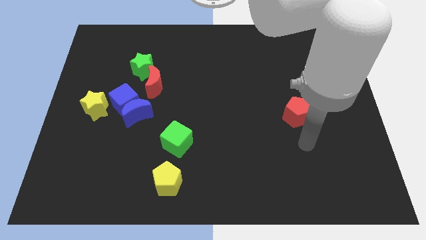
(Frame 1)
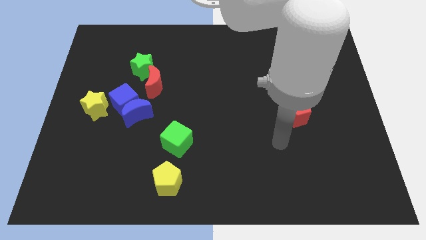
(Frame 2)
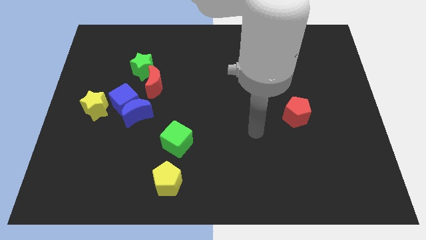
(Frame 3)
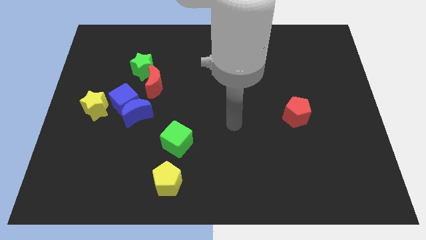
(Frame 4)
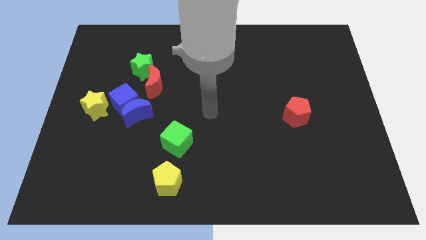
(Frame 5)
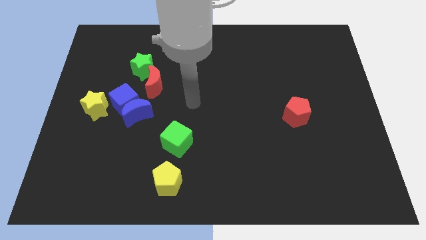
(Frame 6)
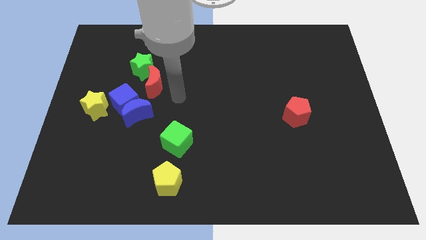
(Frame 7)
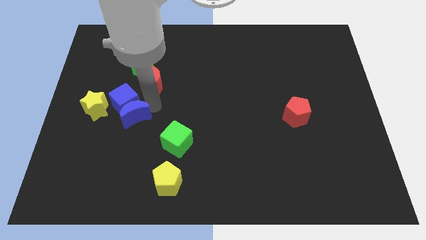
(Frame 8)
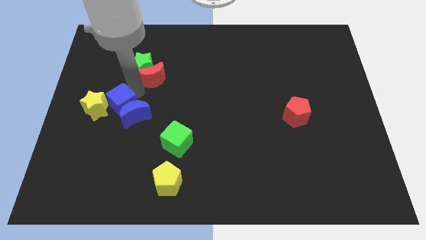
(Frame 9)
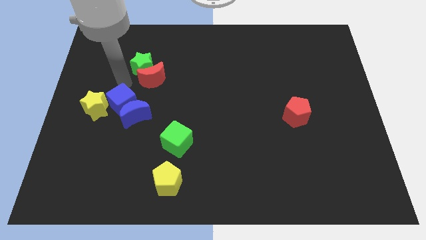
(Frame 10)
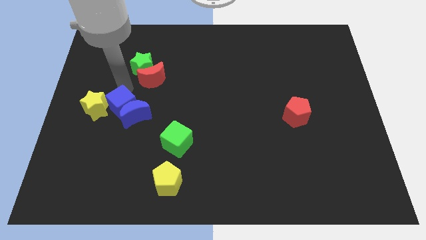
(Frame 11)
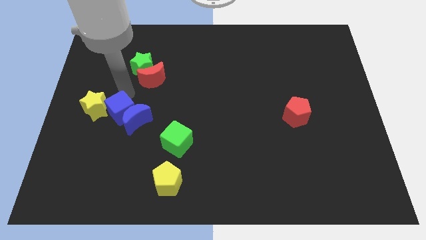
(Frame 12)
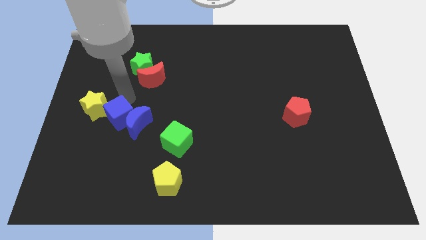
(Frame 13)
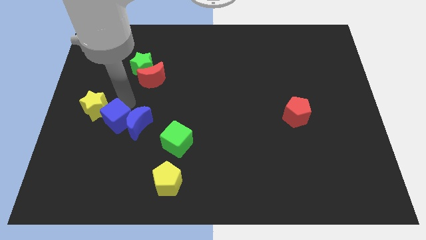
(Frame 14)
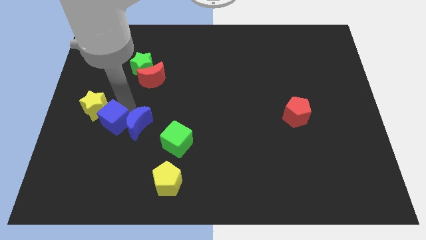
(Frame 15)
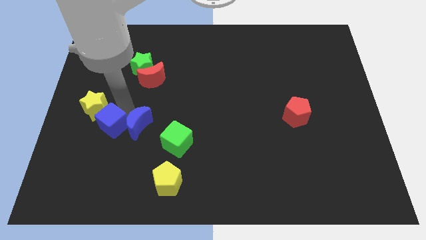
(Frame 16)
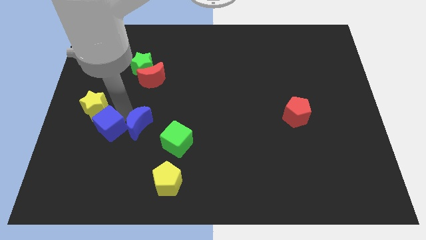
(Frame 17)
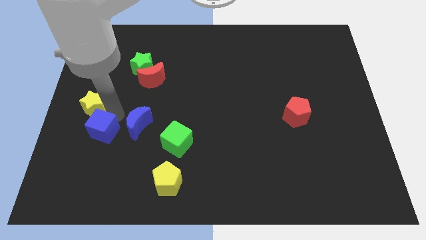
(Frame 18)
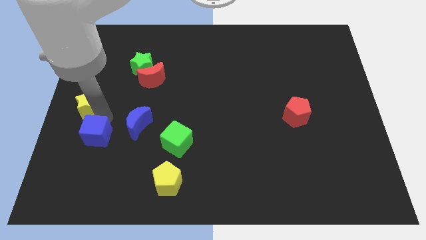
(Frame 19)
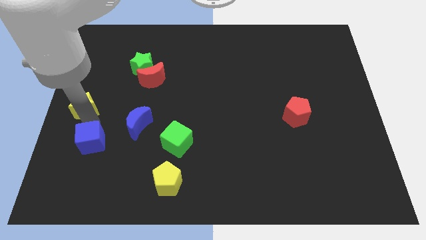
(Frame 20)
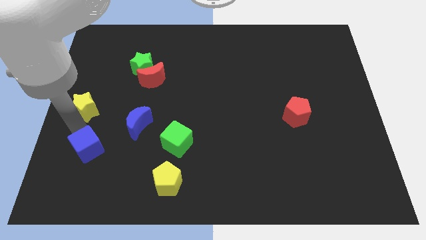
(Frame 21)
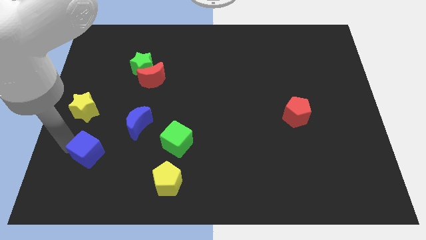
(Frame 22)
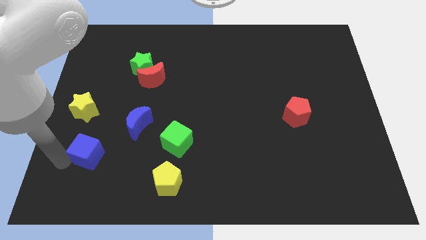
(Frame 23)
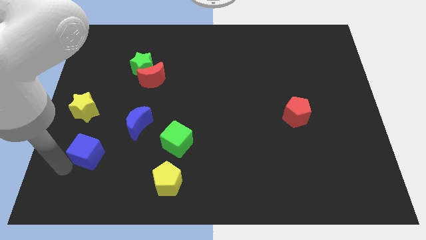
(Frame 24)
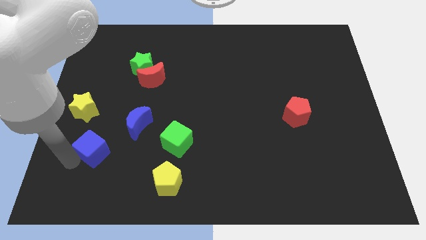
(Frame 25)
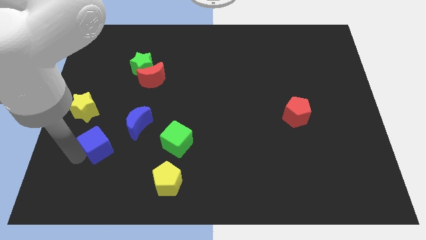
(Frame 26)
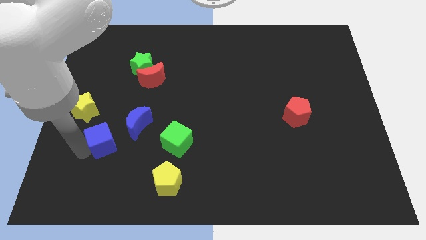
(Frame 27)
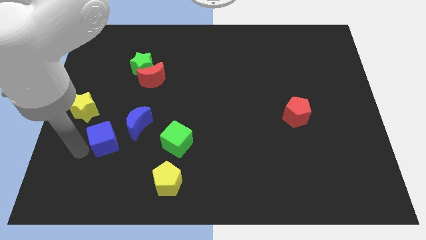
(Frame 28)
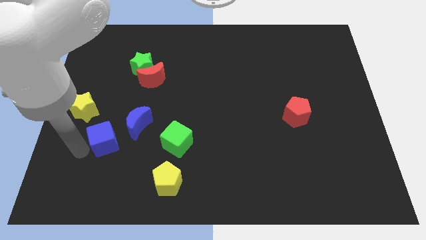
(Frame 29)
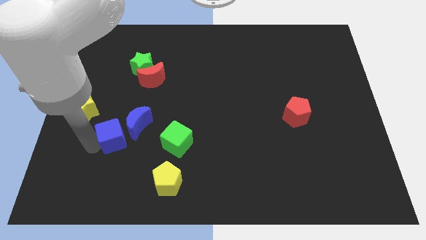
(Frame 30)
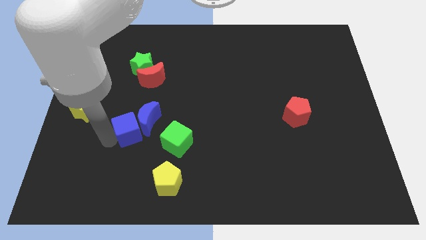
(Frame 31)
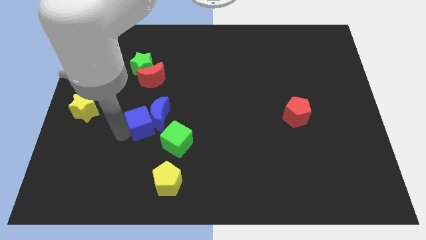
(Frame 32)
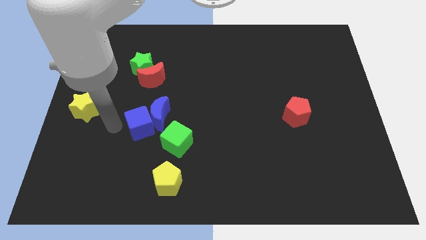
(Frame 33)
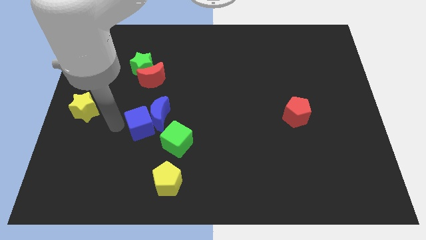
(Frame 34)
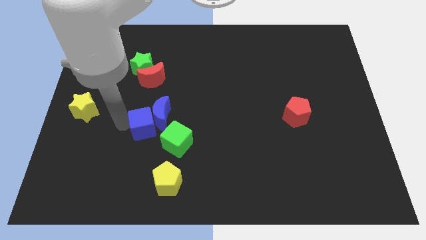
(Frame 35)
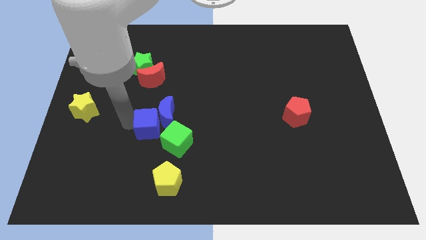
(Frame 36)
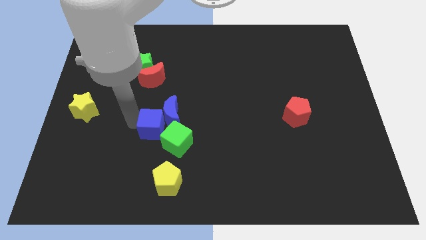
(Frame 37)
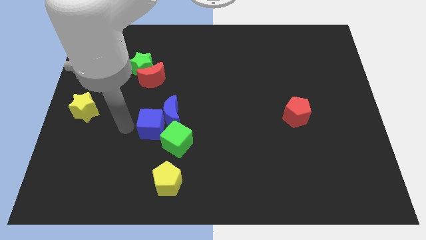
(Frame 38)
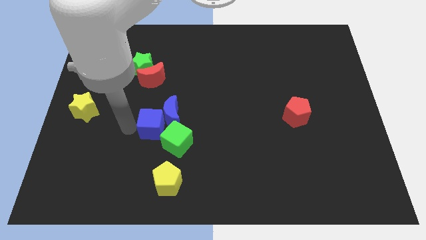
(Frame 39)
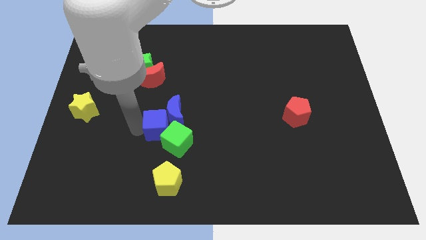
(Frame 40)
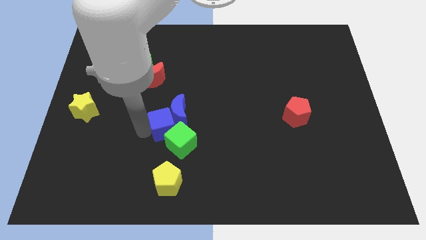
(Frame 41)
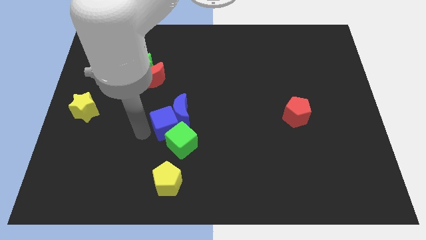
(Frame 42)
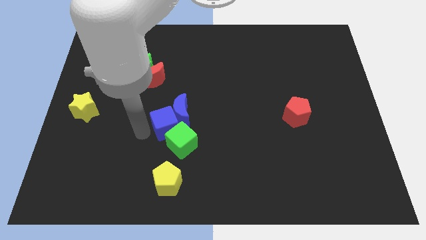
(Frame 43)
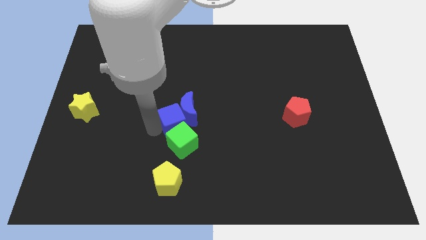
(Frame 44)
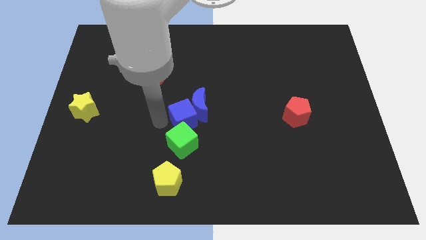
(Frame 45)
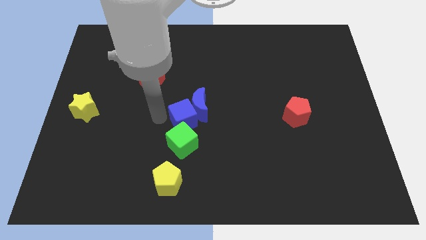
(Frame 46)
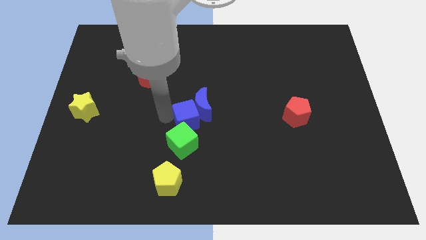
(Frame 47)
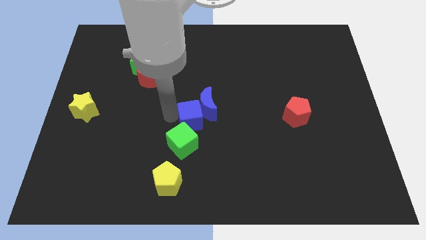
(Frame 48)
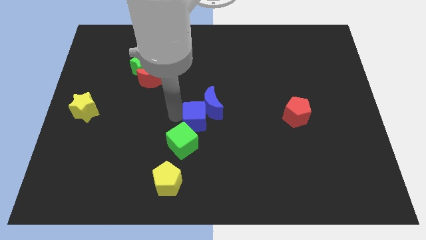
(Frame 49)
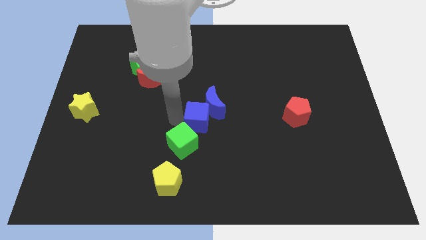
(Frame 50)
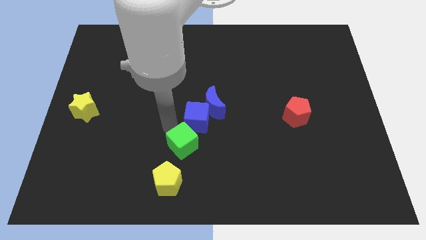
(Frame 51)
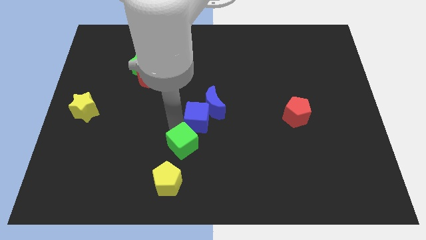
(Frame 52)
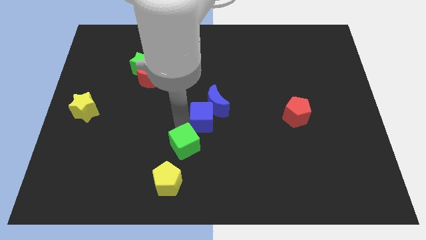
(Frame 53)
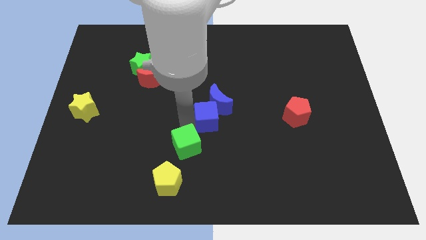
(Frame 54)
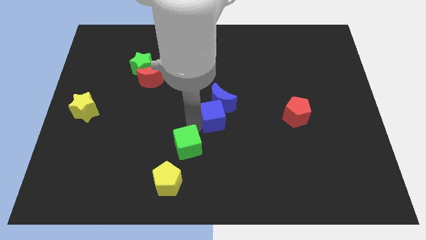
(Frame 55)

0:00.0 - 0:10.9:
move the blue cube right

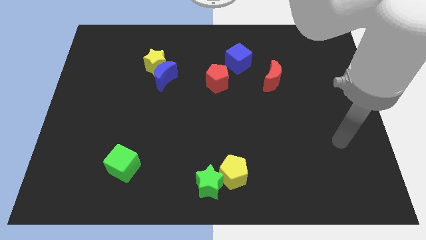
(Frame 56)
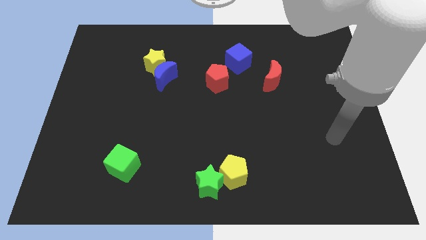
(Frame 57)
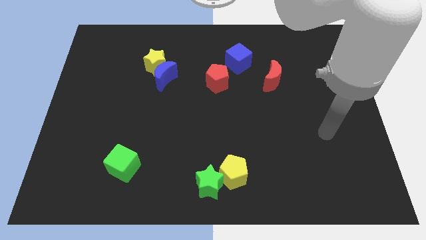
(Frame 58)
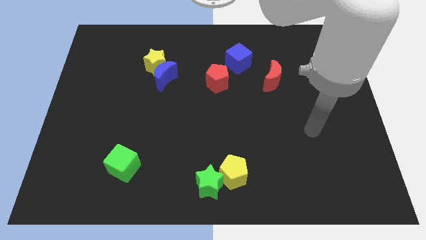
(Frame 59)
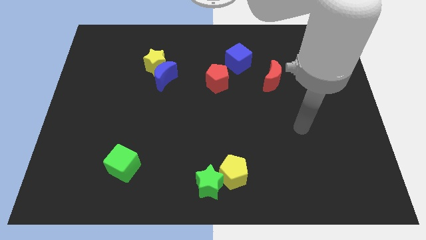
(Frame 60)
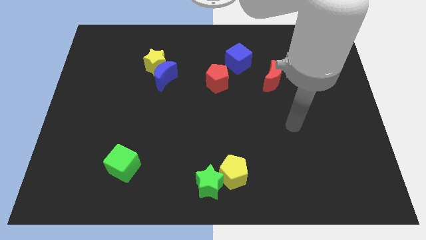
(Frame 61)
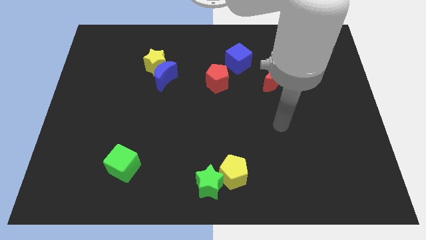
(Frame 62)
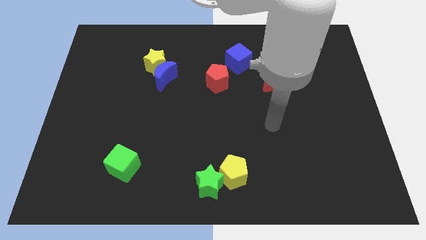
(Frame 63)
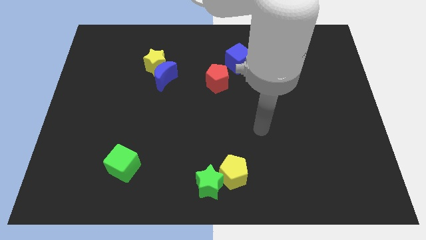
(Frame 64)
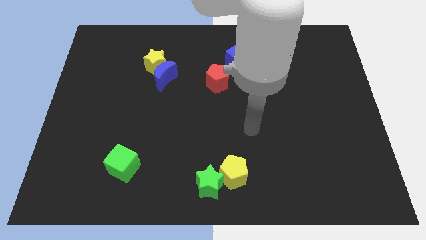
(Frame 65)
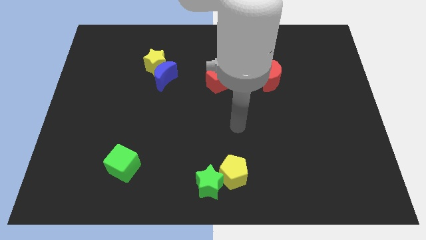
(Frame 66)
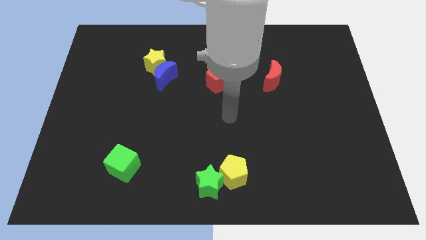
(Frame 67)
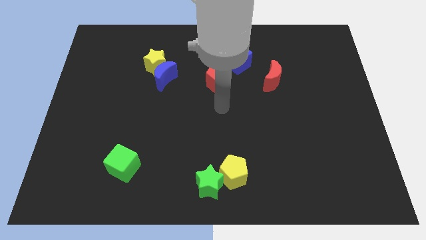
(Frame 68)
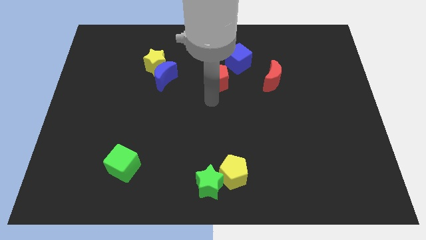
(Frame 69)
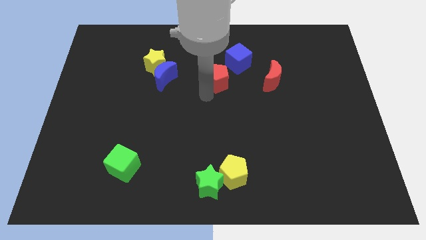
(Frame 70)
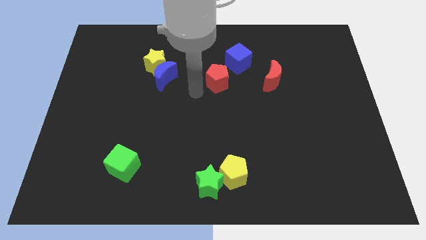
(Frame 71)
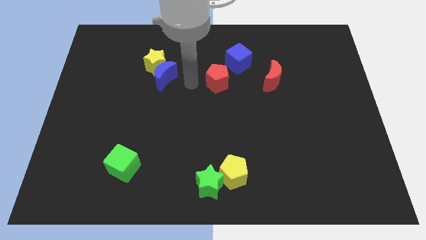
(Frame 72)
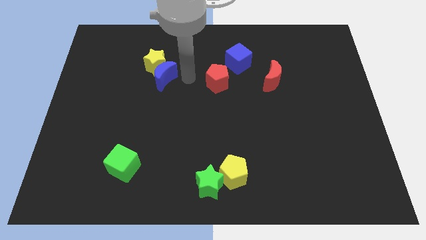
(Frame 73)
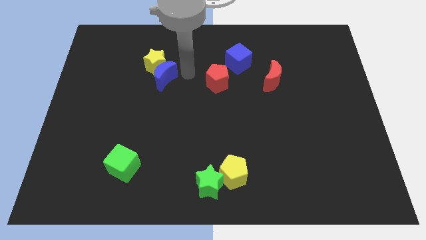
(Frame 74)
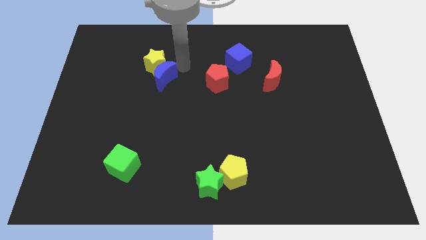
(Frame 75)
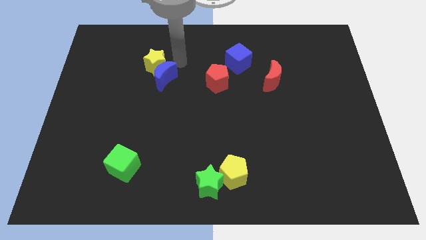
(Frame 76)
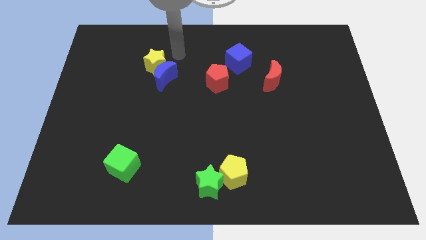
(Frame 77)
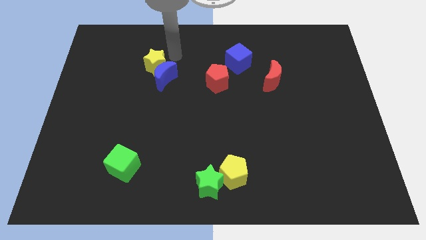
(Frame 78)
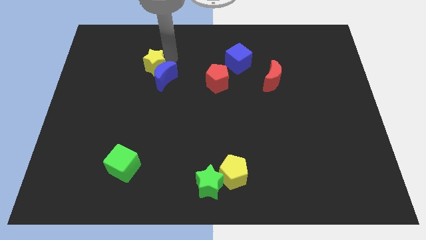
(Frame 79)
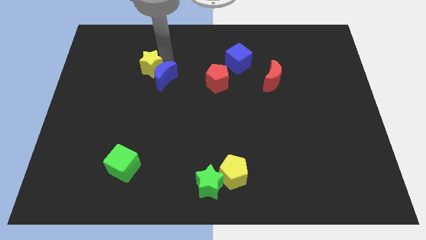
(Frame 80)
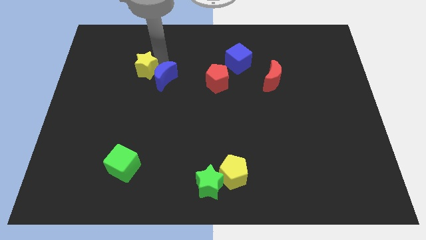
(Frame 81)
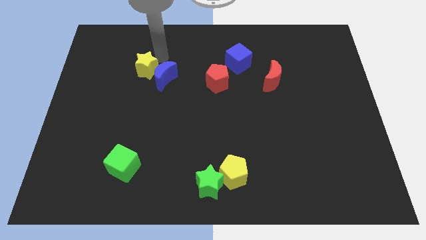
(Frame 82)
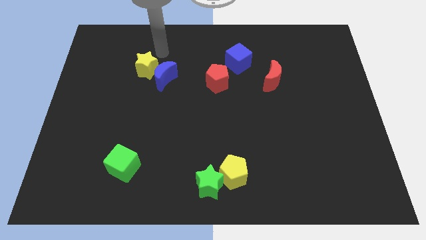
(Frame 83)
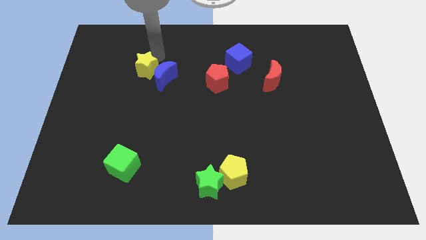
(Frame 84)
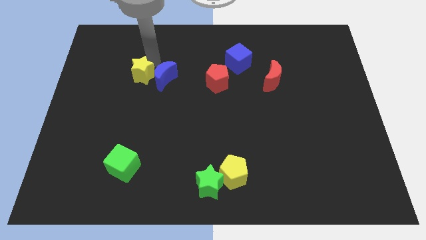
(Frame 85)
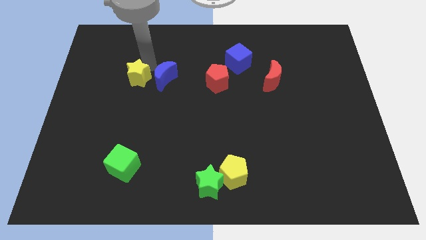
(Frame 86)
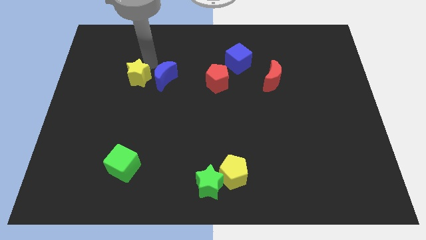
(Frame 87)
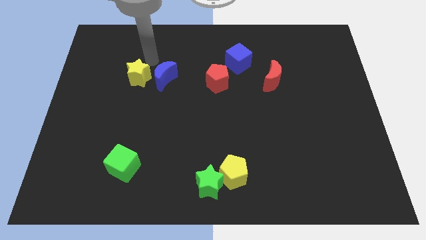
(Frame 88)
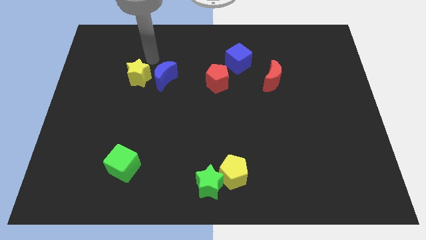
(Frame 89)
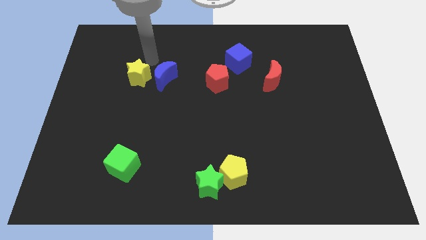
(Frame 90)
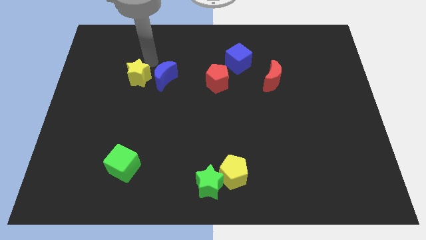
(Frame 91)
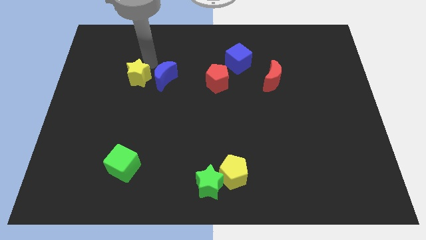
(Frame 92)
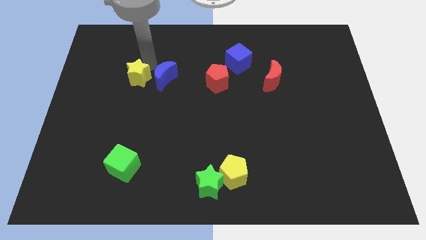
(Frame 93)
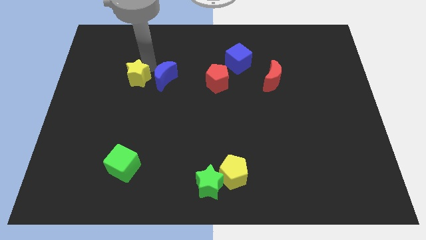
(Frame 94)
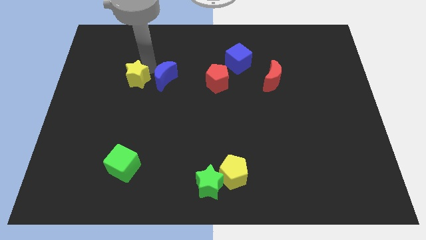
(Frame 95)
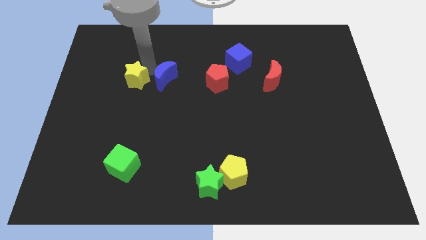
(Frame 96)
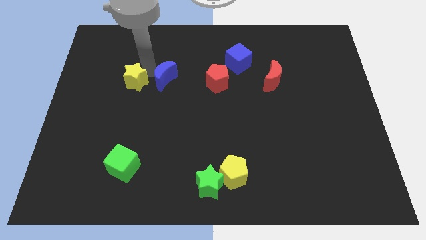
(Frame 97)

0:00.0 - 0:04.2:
slightly slide the yellow star downwards and left diagonally
